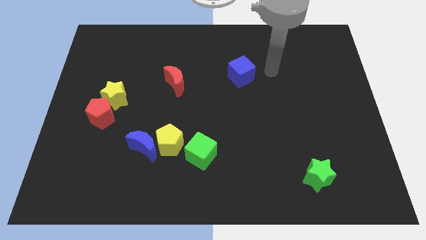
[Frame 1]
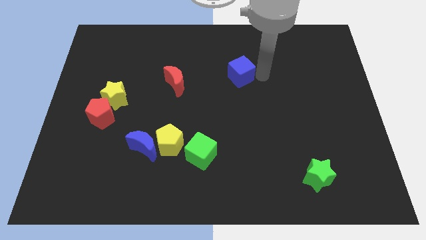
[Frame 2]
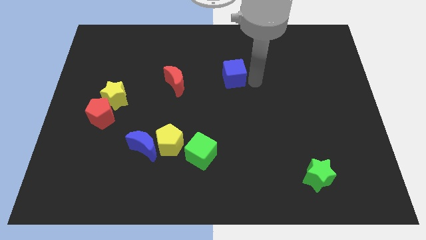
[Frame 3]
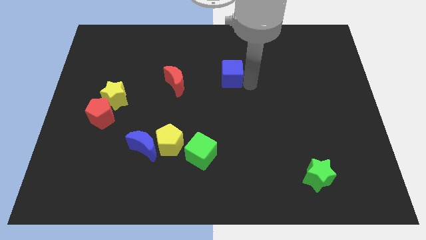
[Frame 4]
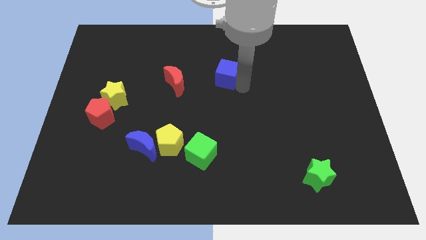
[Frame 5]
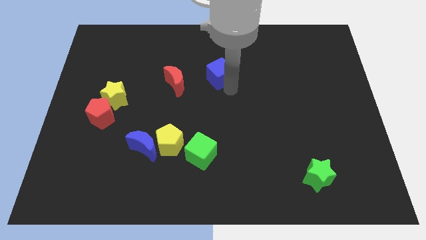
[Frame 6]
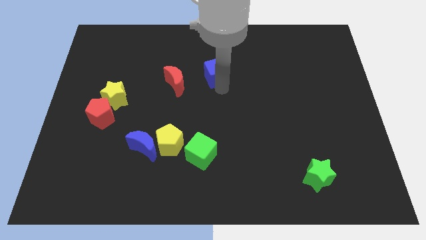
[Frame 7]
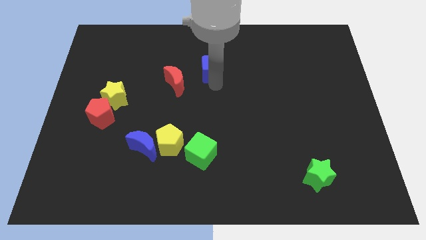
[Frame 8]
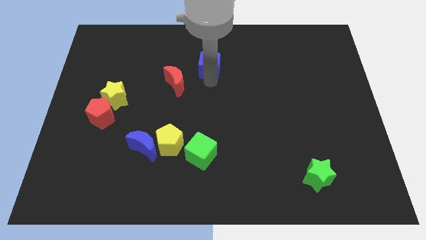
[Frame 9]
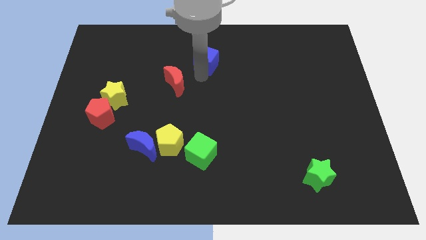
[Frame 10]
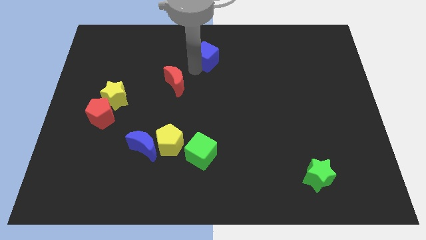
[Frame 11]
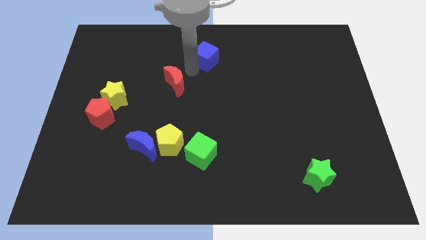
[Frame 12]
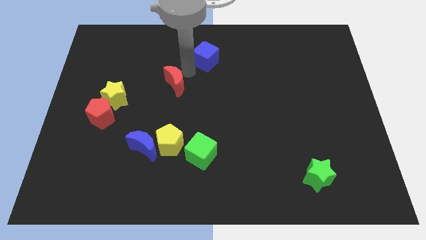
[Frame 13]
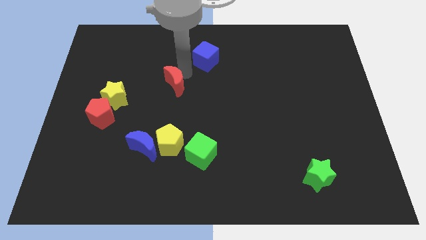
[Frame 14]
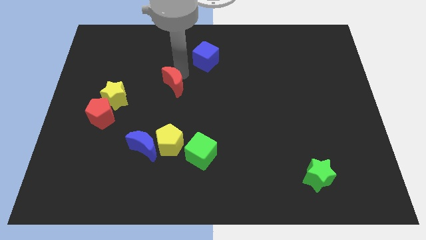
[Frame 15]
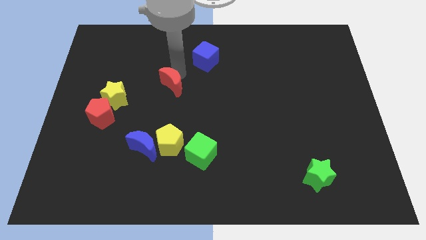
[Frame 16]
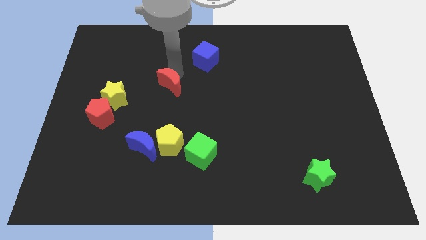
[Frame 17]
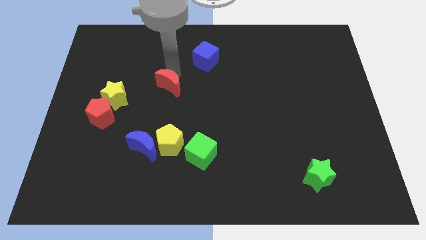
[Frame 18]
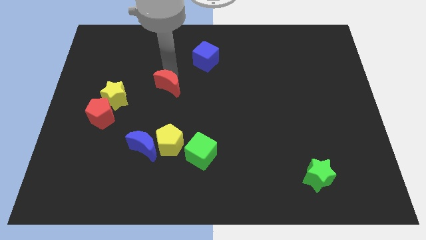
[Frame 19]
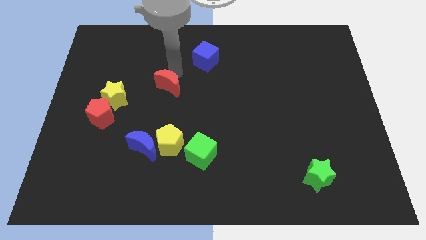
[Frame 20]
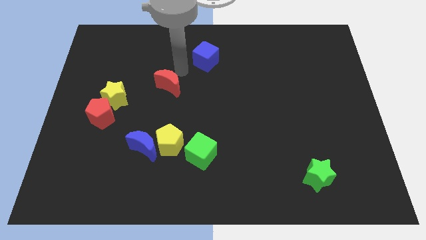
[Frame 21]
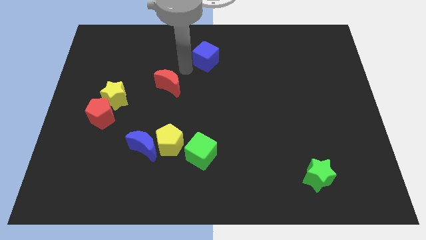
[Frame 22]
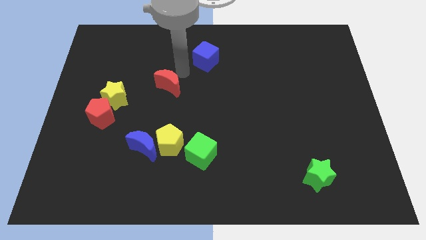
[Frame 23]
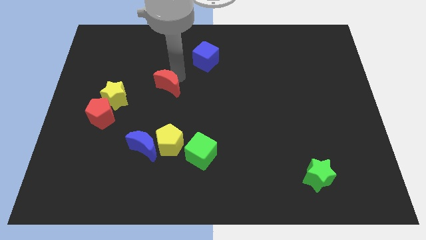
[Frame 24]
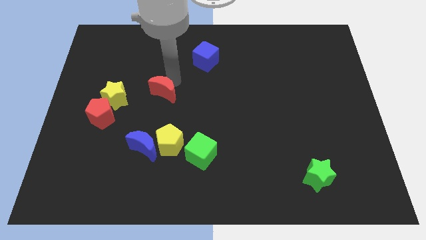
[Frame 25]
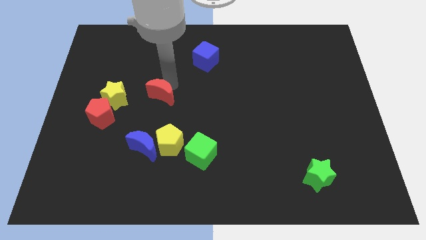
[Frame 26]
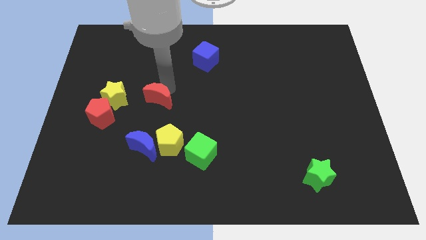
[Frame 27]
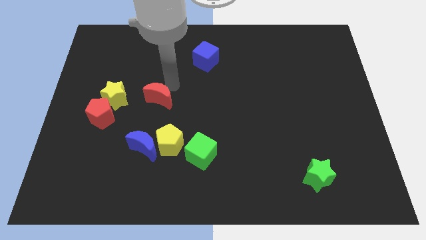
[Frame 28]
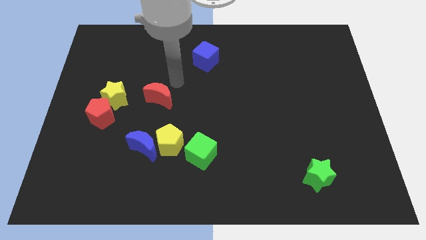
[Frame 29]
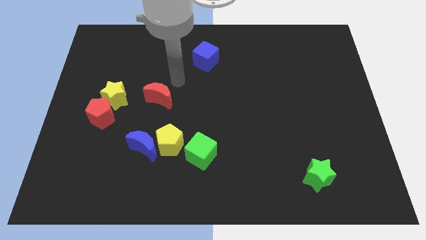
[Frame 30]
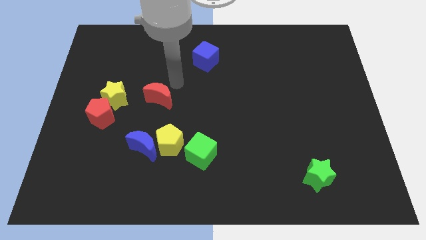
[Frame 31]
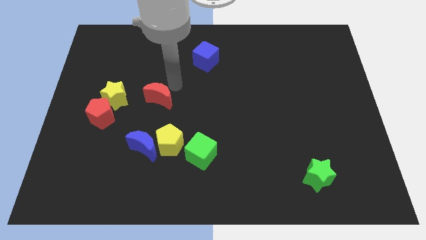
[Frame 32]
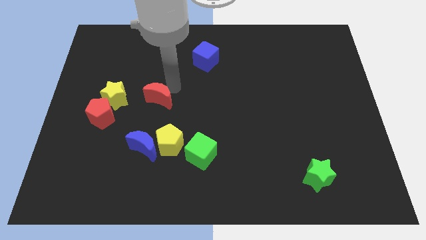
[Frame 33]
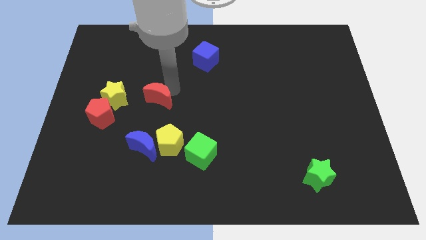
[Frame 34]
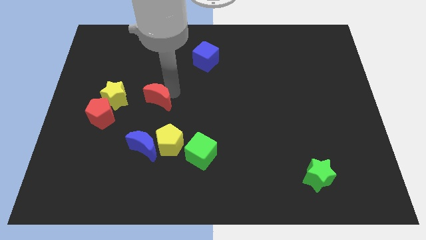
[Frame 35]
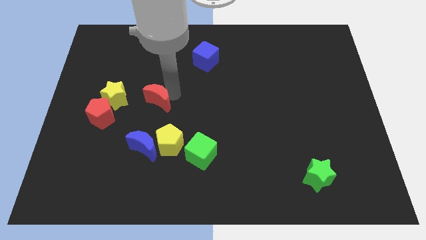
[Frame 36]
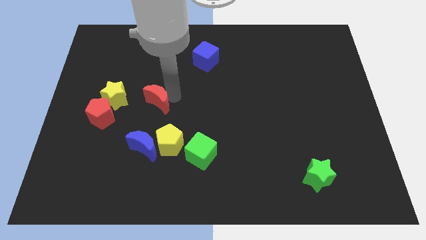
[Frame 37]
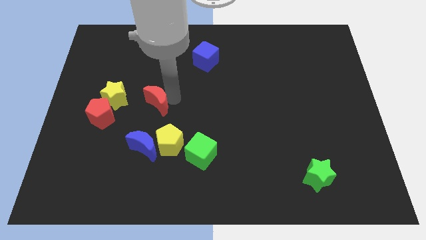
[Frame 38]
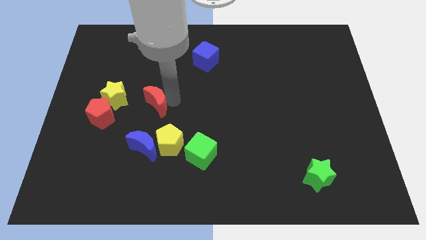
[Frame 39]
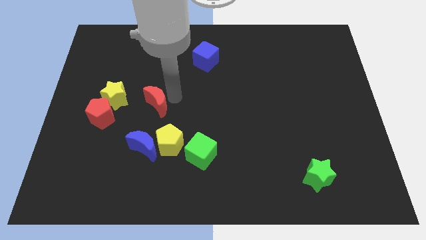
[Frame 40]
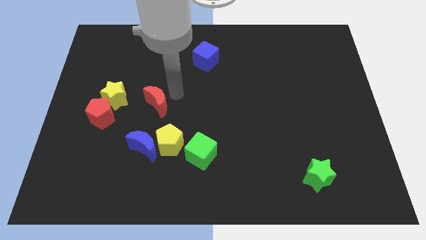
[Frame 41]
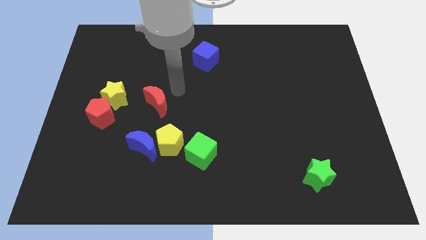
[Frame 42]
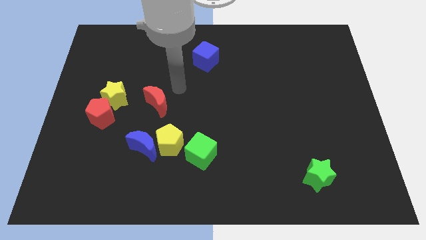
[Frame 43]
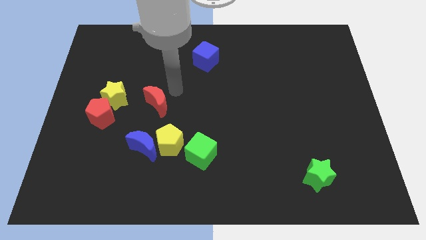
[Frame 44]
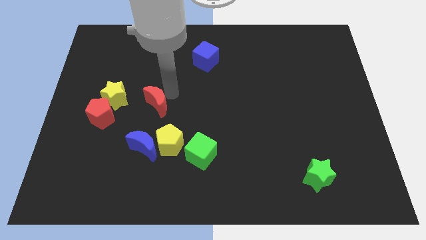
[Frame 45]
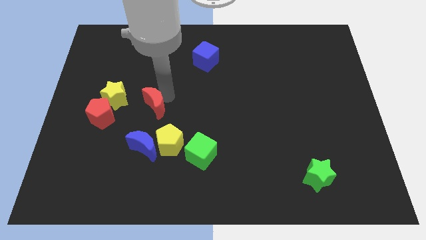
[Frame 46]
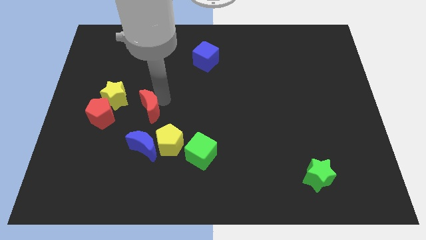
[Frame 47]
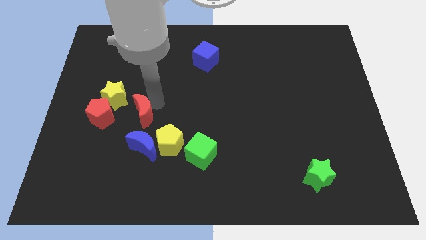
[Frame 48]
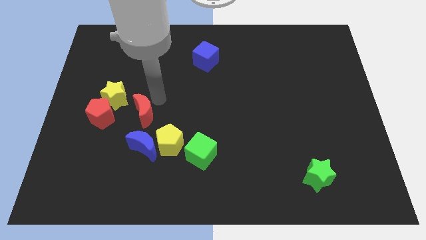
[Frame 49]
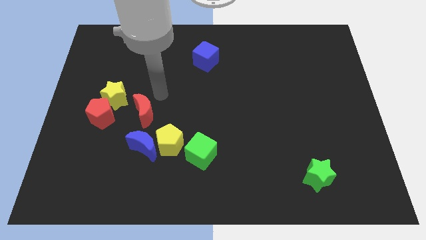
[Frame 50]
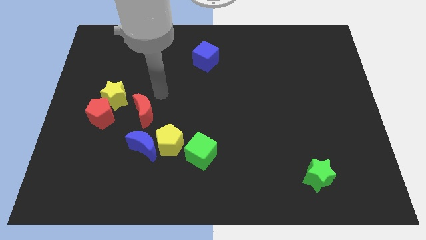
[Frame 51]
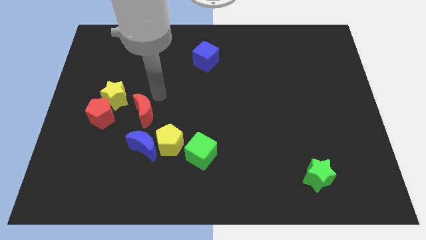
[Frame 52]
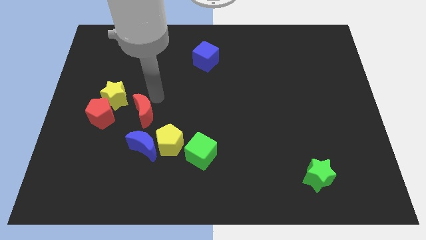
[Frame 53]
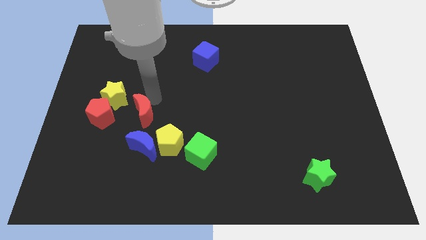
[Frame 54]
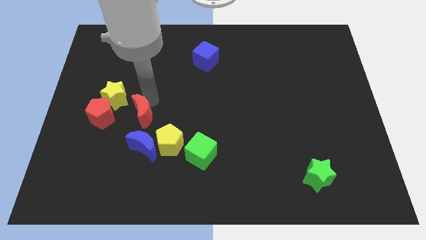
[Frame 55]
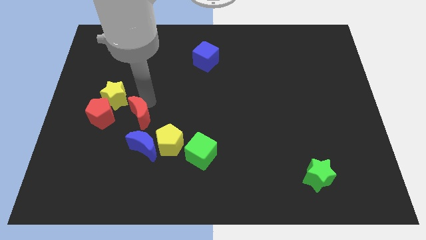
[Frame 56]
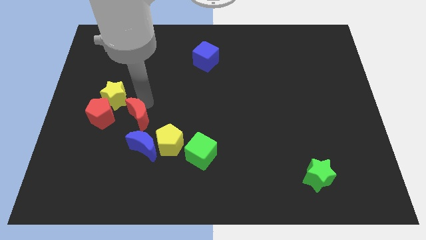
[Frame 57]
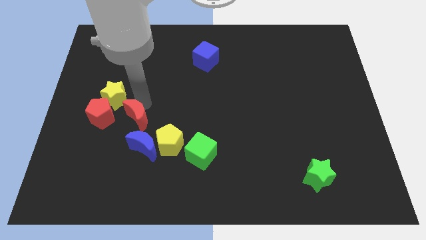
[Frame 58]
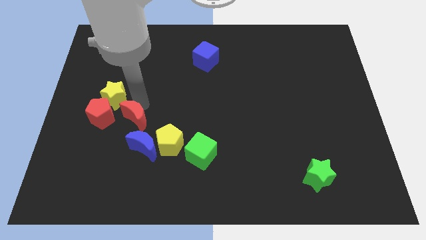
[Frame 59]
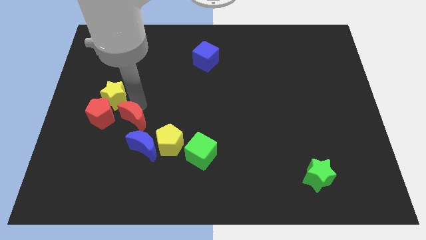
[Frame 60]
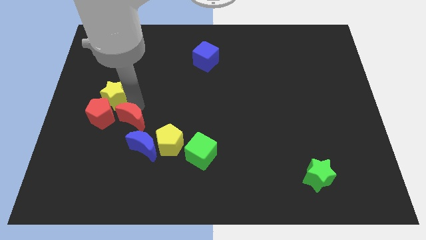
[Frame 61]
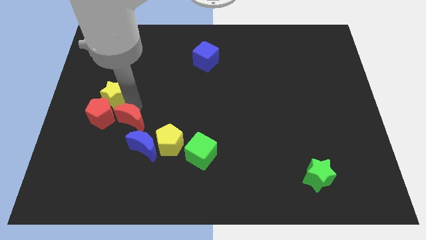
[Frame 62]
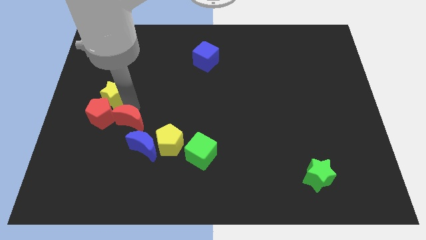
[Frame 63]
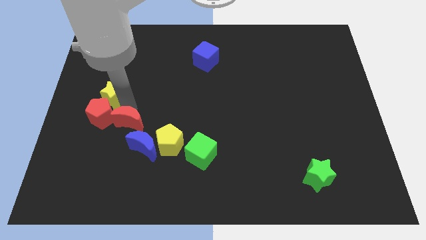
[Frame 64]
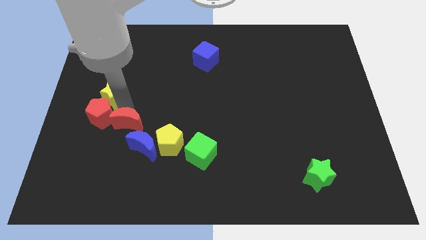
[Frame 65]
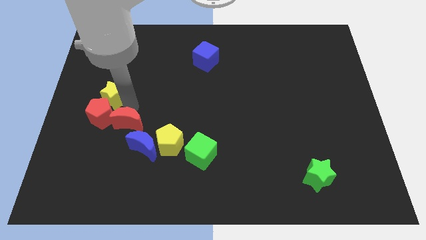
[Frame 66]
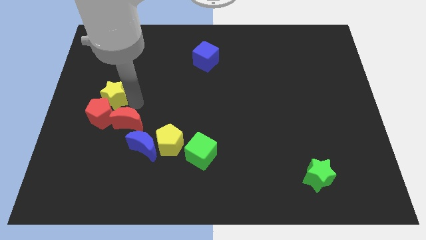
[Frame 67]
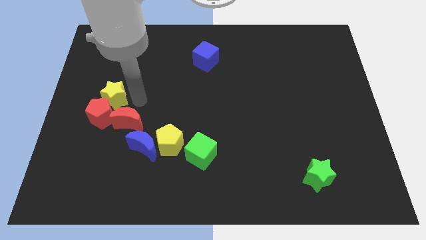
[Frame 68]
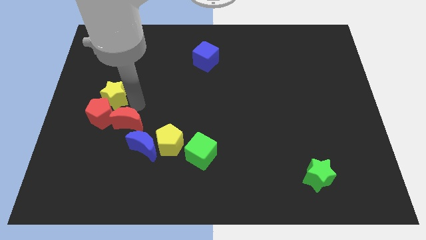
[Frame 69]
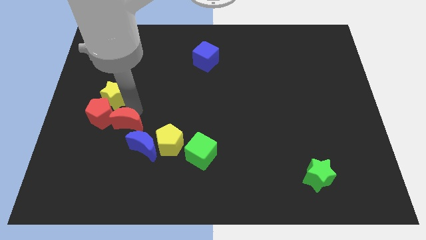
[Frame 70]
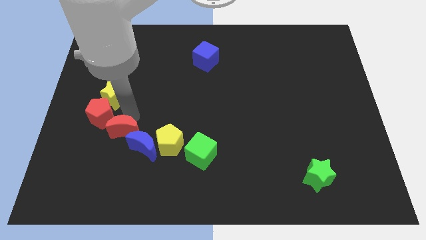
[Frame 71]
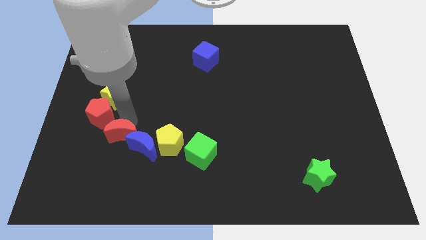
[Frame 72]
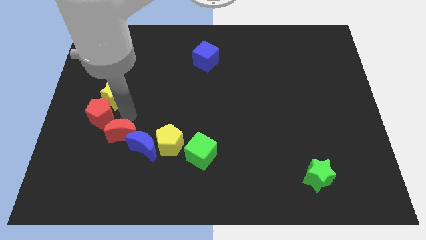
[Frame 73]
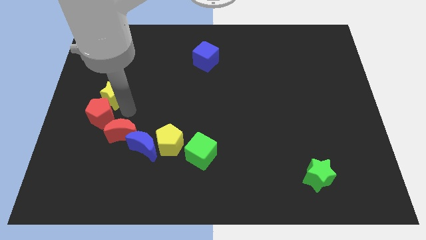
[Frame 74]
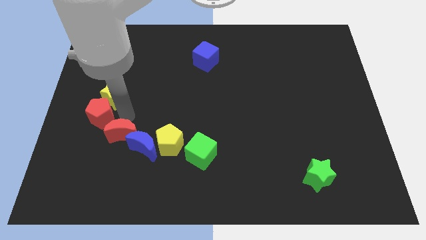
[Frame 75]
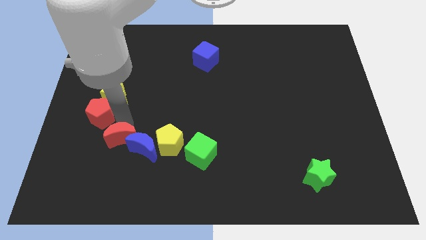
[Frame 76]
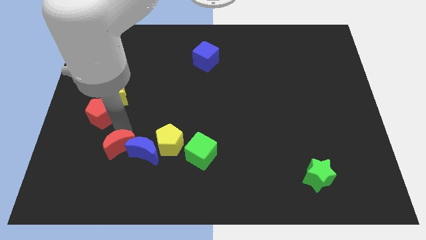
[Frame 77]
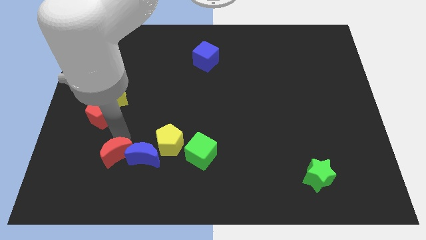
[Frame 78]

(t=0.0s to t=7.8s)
push the red moon diagonally down and to the left of the blue moon
